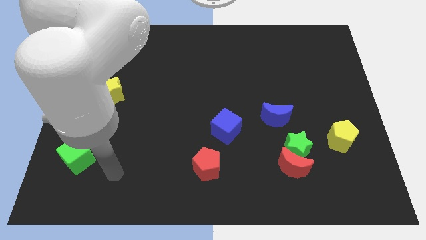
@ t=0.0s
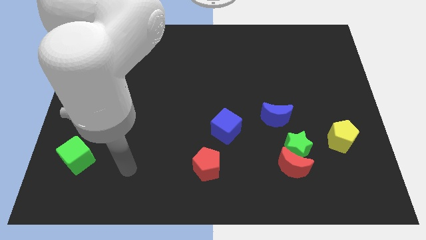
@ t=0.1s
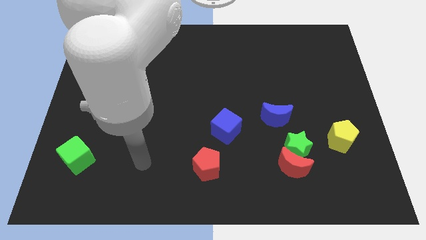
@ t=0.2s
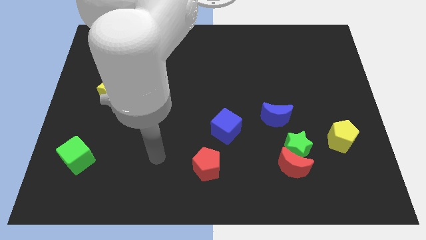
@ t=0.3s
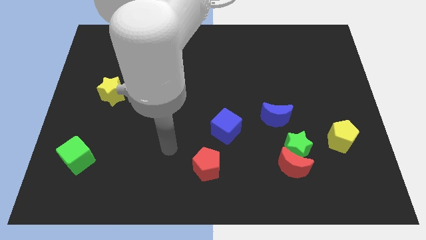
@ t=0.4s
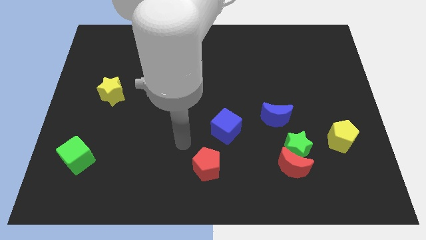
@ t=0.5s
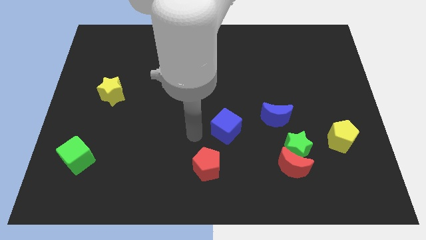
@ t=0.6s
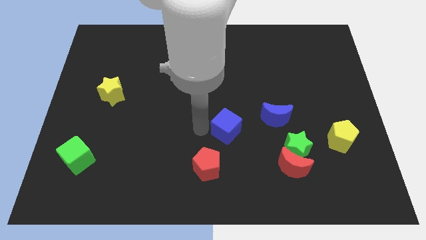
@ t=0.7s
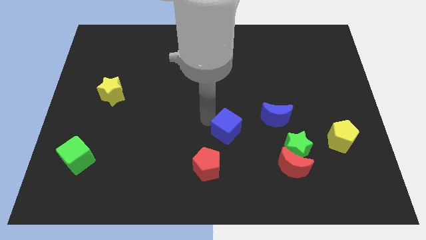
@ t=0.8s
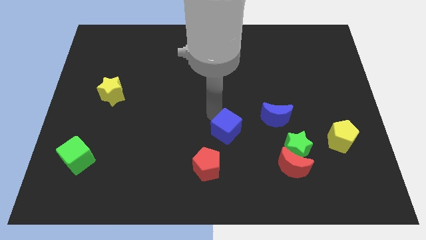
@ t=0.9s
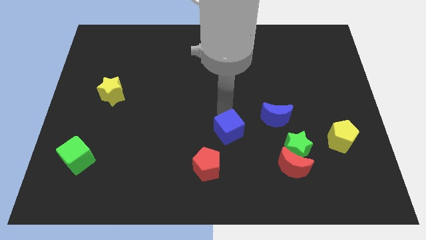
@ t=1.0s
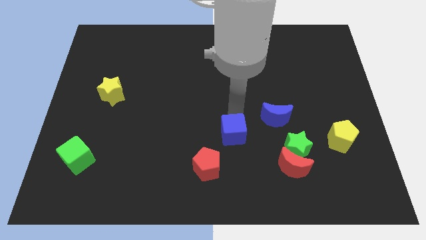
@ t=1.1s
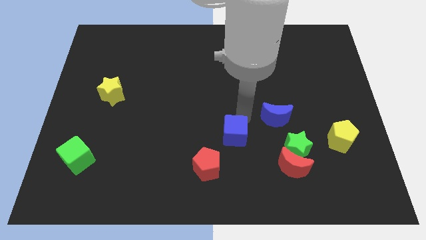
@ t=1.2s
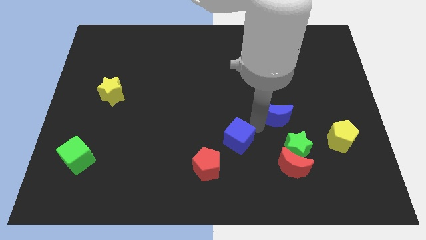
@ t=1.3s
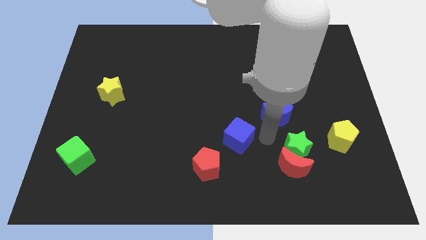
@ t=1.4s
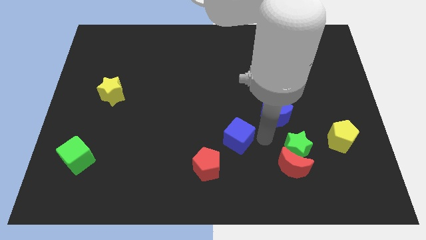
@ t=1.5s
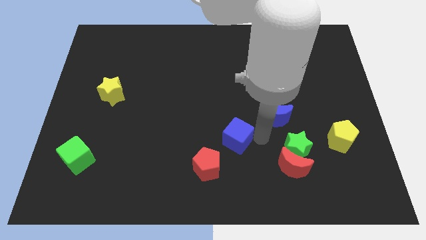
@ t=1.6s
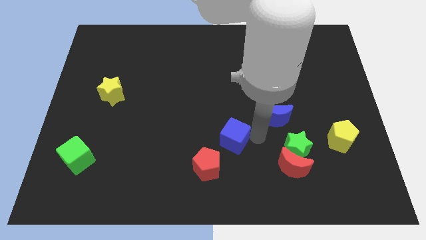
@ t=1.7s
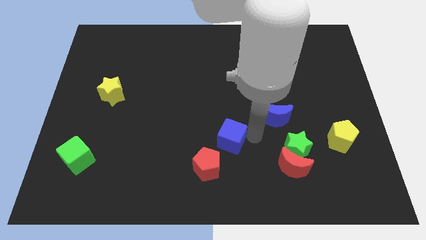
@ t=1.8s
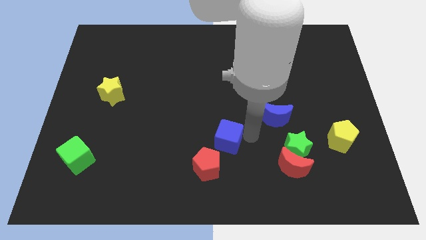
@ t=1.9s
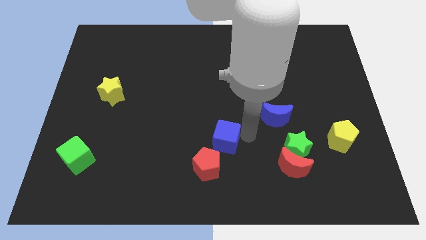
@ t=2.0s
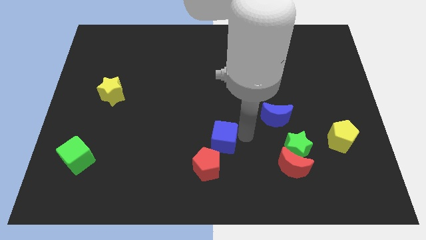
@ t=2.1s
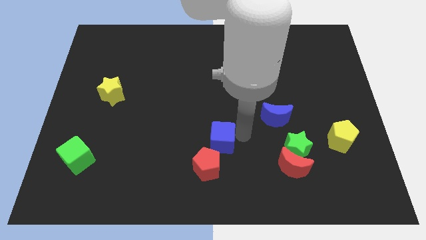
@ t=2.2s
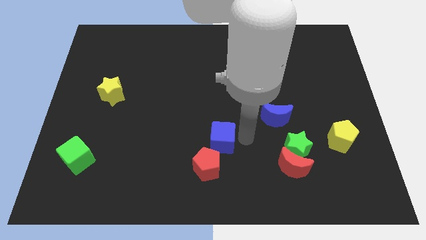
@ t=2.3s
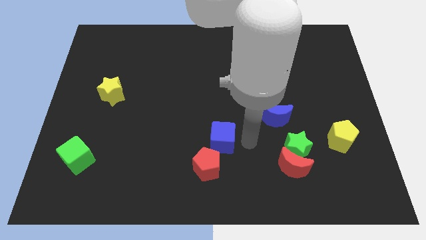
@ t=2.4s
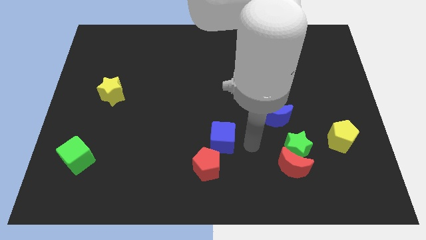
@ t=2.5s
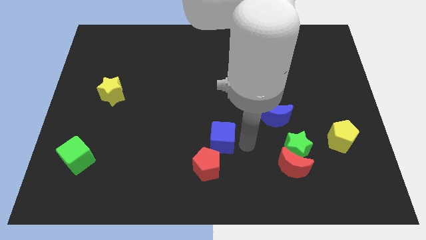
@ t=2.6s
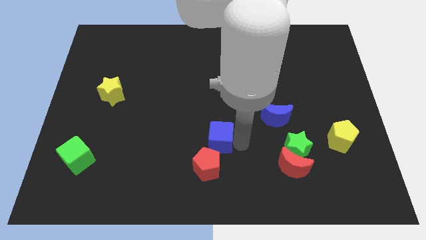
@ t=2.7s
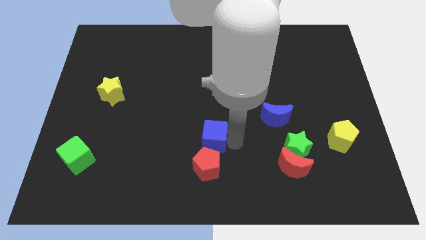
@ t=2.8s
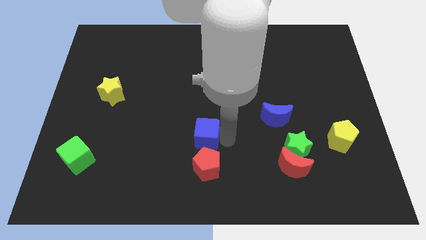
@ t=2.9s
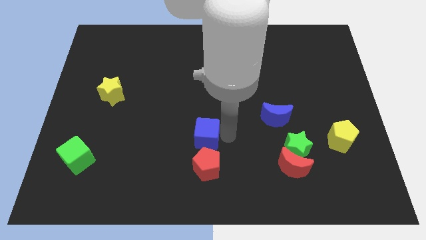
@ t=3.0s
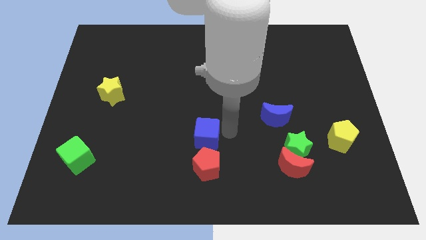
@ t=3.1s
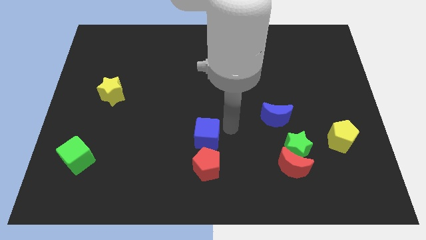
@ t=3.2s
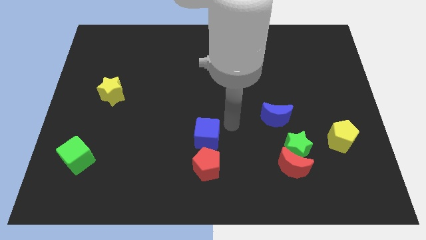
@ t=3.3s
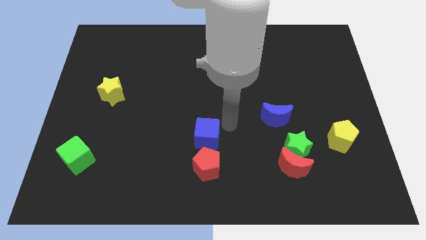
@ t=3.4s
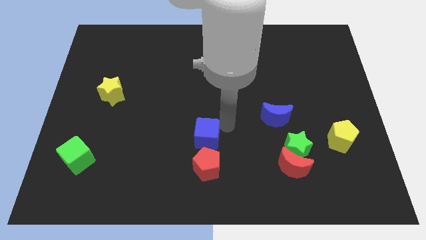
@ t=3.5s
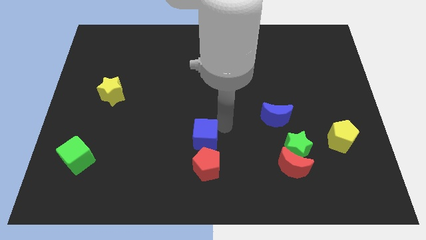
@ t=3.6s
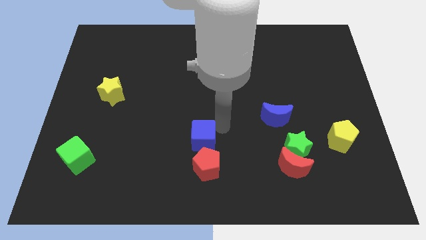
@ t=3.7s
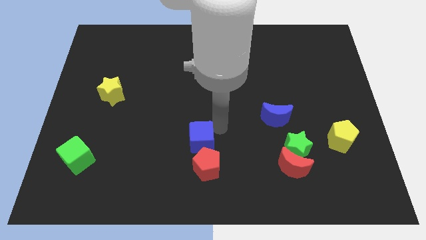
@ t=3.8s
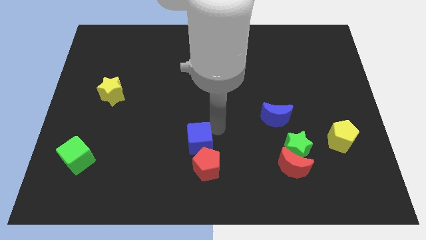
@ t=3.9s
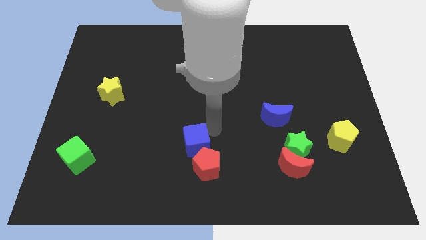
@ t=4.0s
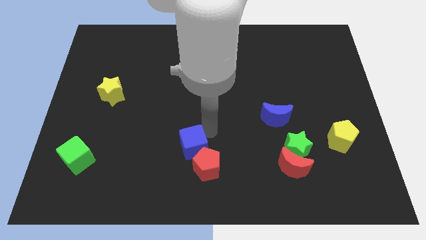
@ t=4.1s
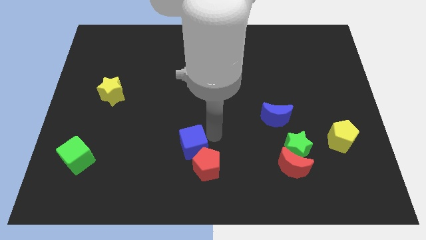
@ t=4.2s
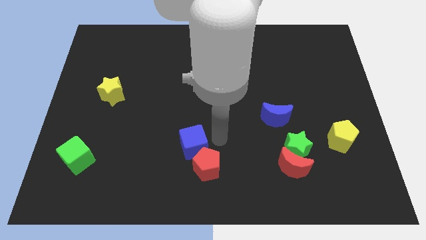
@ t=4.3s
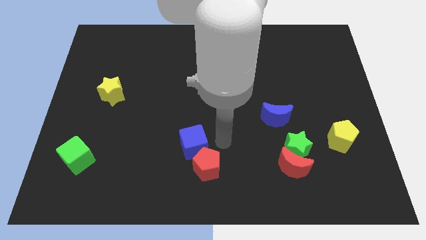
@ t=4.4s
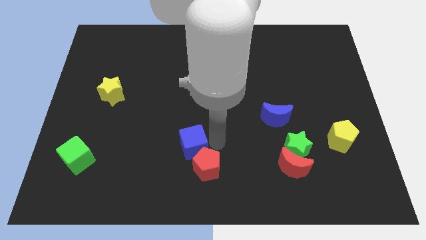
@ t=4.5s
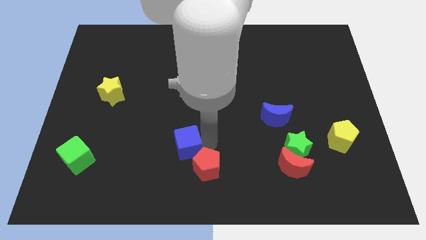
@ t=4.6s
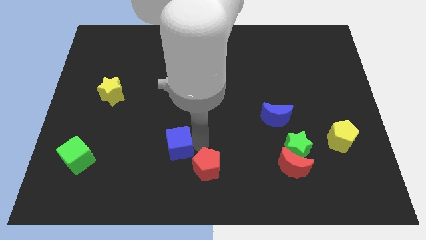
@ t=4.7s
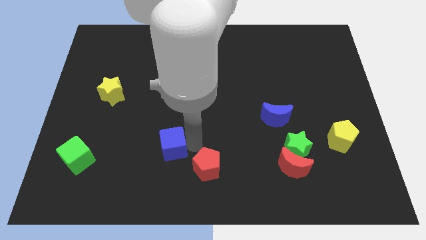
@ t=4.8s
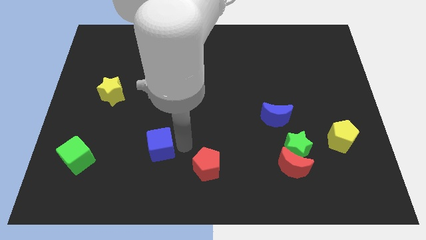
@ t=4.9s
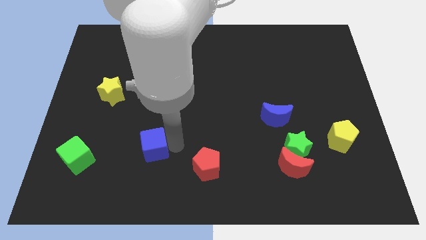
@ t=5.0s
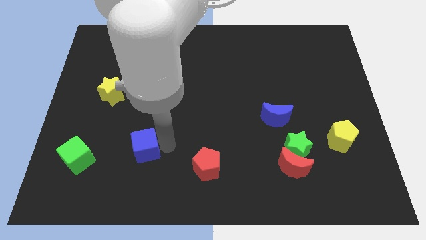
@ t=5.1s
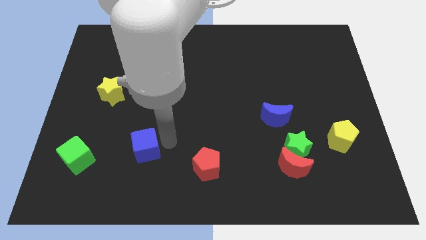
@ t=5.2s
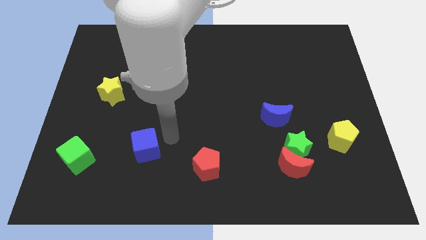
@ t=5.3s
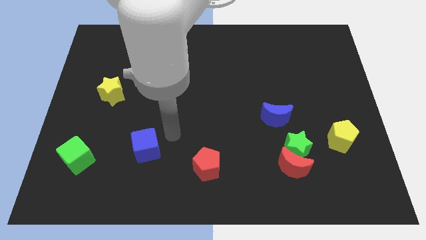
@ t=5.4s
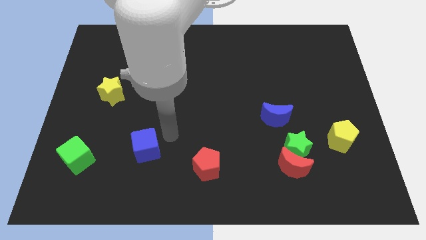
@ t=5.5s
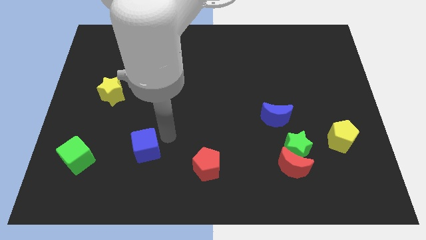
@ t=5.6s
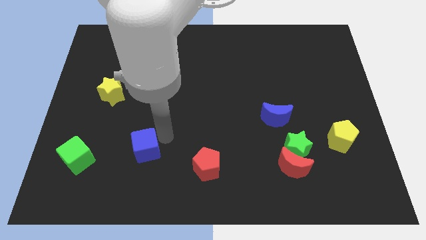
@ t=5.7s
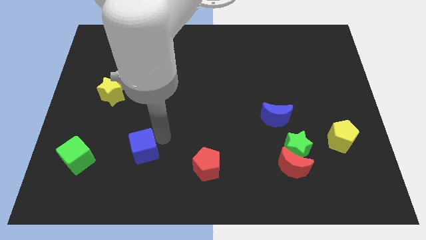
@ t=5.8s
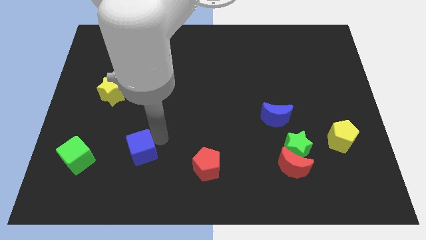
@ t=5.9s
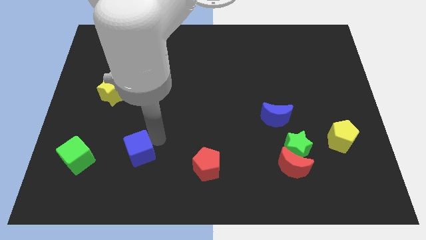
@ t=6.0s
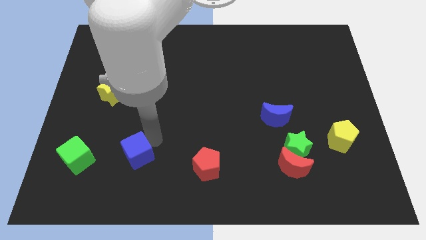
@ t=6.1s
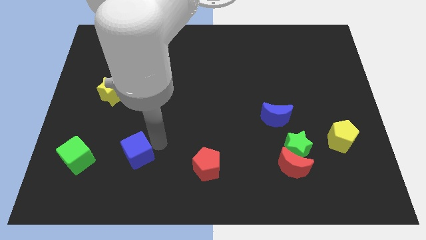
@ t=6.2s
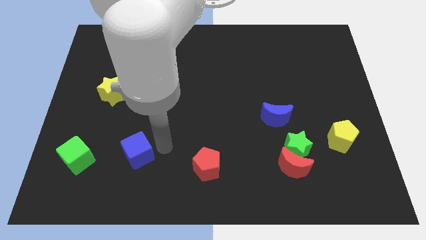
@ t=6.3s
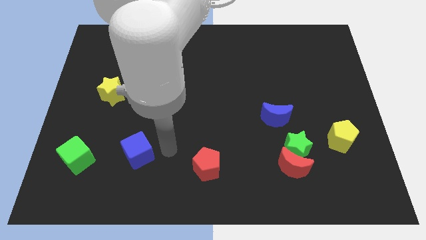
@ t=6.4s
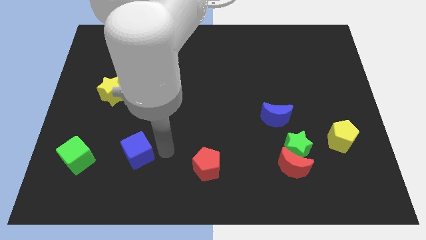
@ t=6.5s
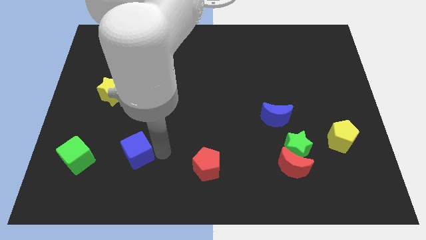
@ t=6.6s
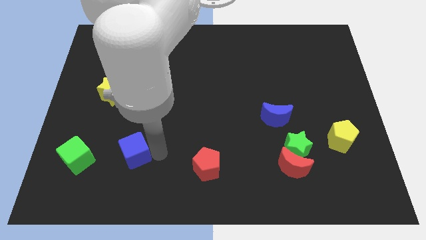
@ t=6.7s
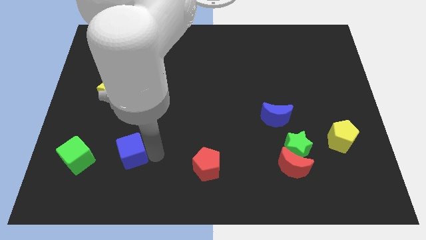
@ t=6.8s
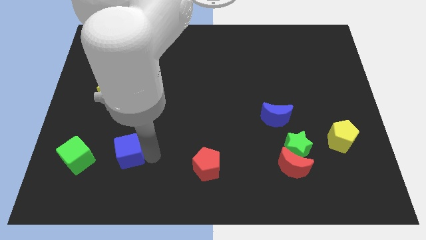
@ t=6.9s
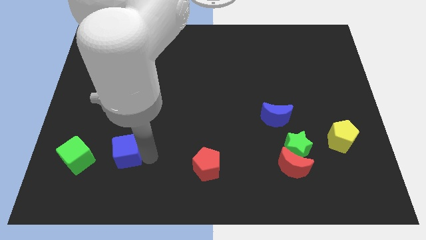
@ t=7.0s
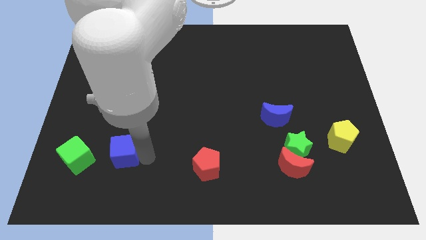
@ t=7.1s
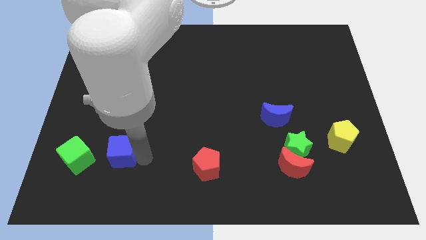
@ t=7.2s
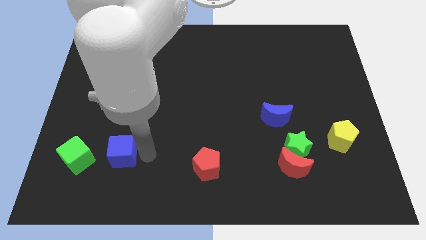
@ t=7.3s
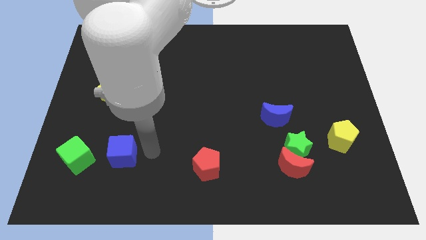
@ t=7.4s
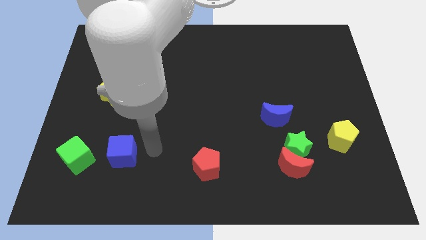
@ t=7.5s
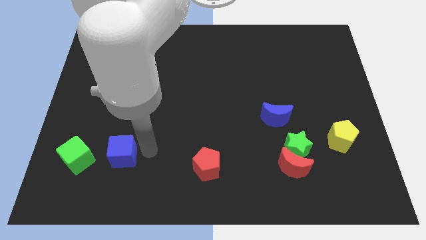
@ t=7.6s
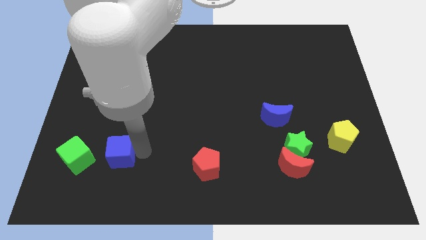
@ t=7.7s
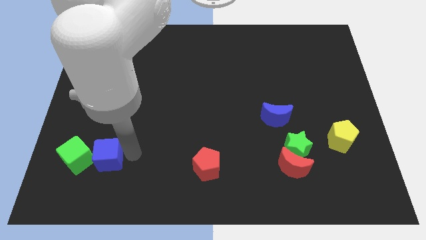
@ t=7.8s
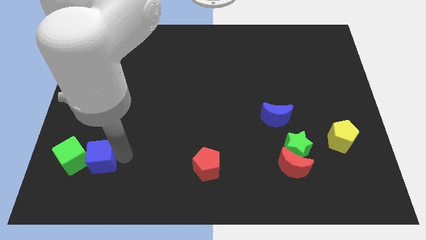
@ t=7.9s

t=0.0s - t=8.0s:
move the blue cube next to the green cube
